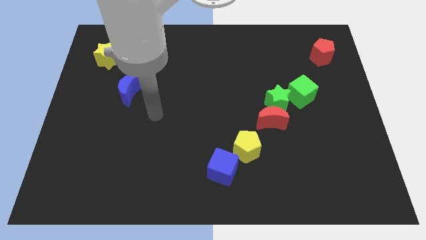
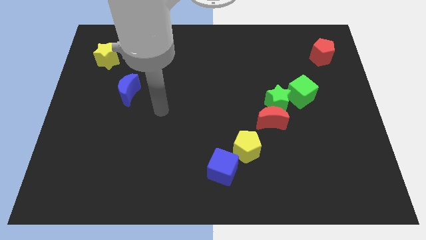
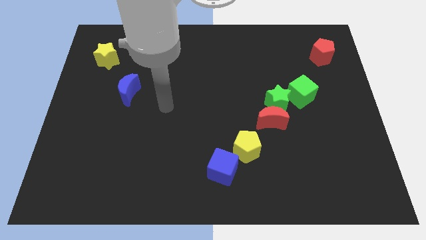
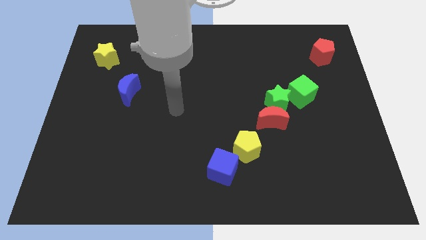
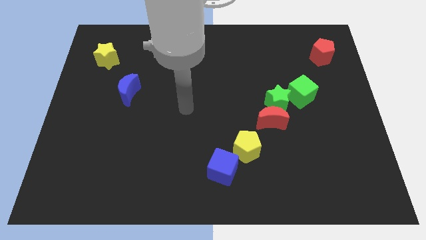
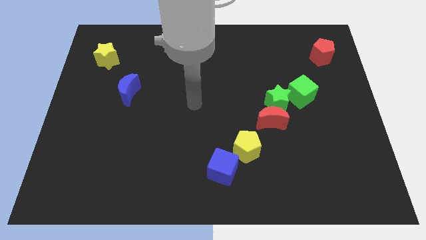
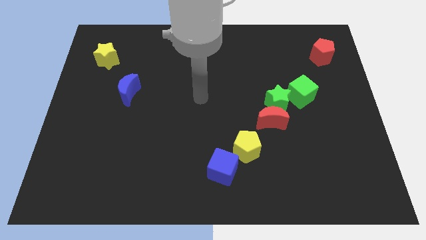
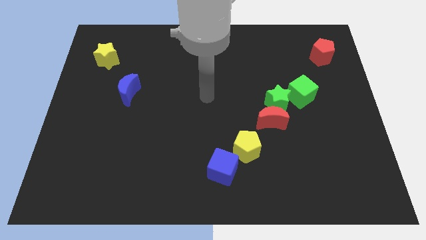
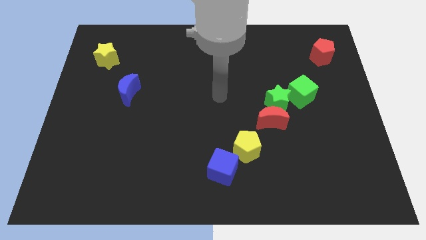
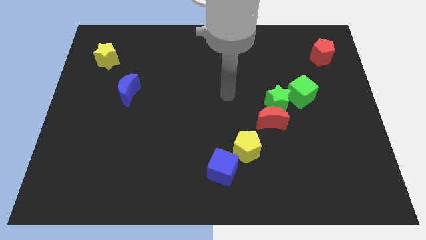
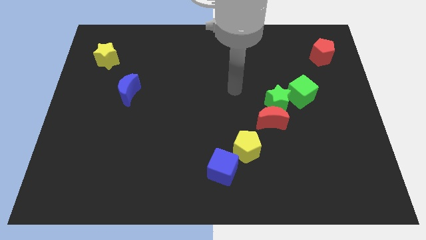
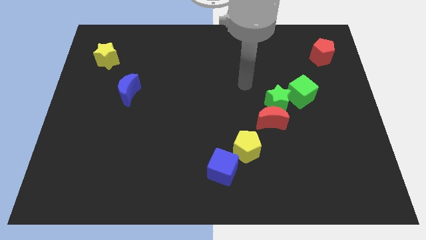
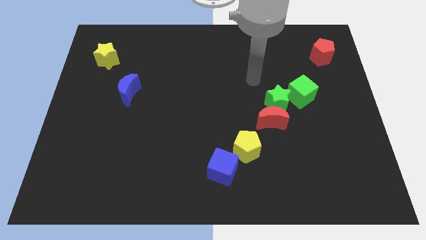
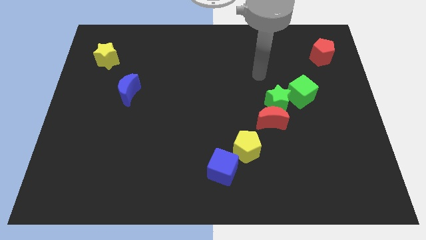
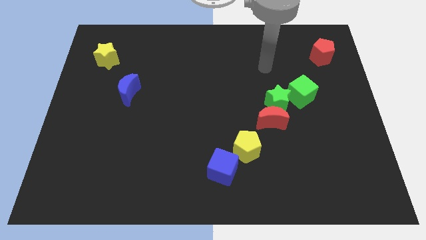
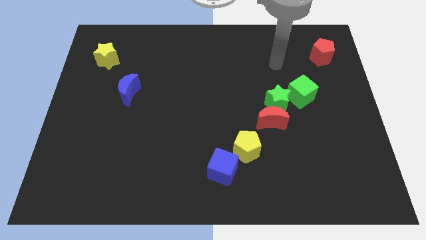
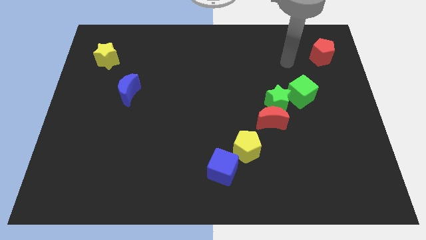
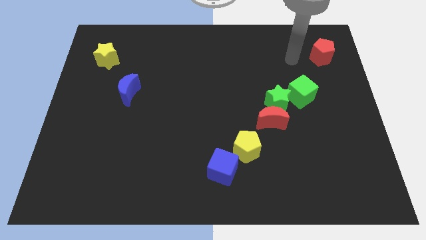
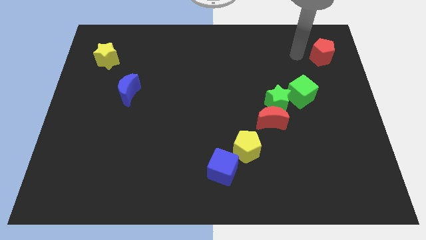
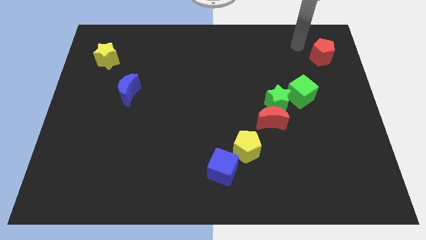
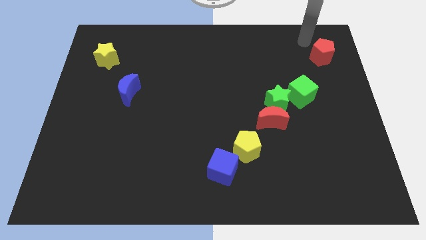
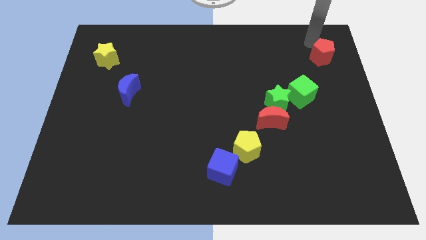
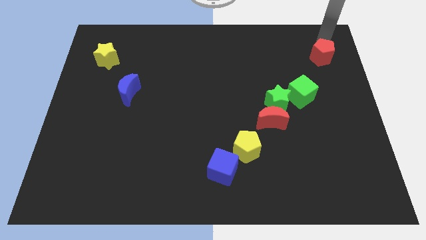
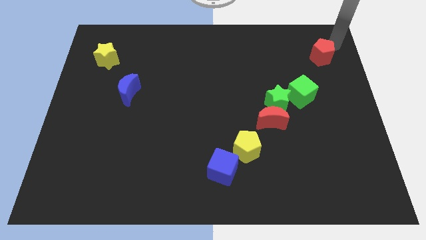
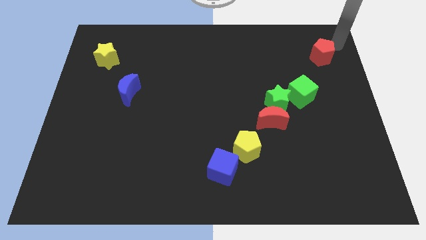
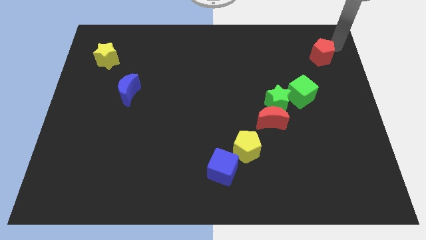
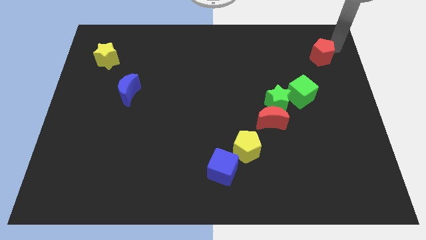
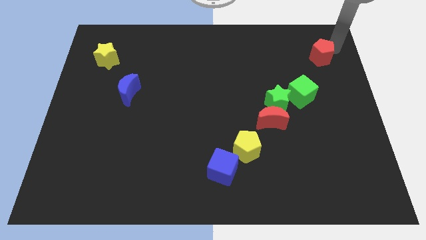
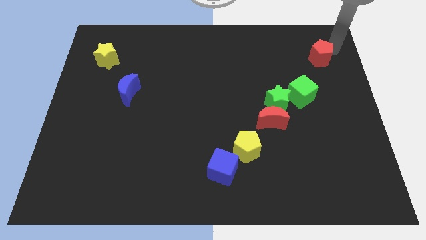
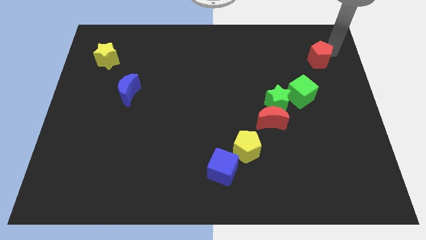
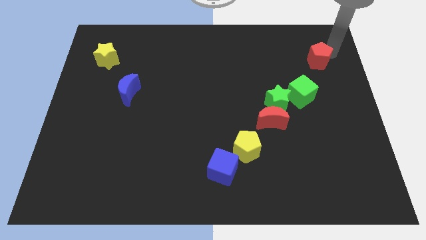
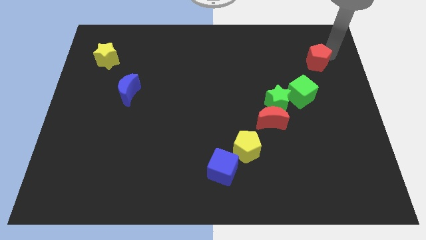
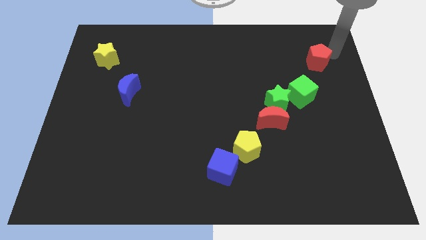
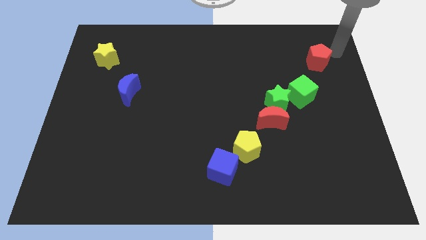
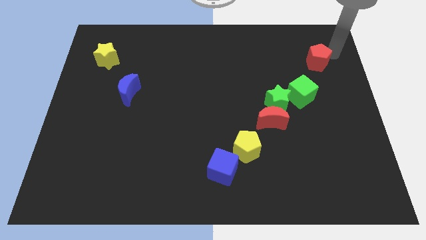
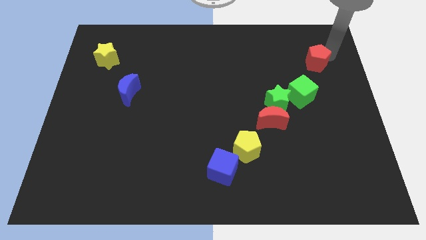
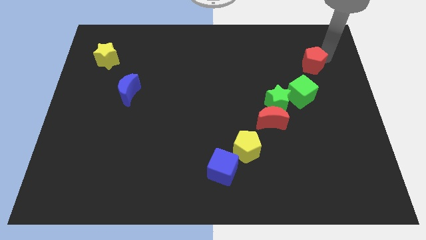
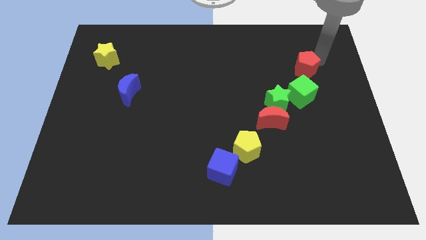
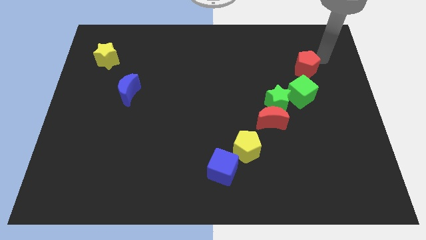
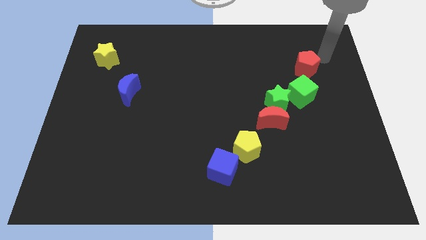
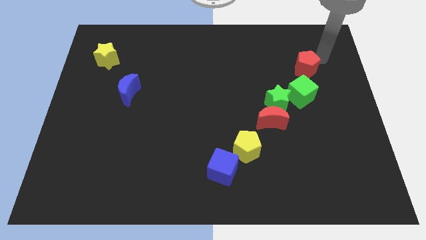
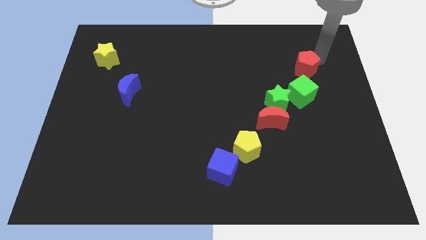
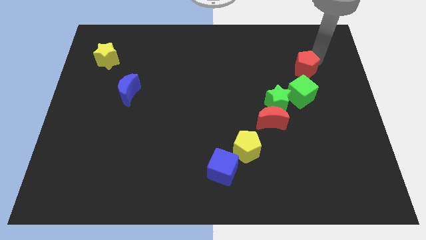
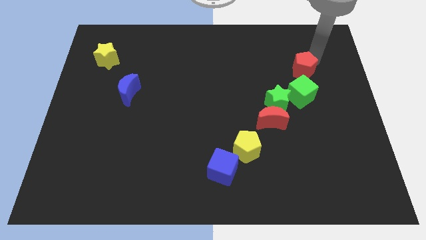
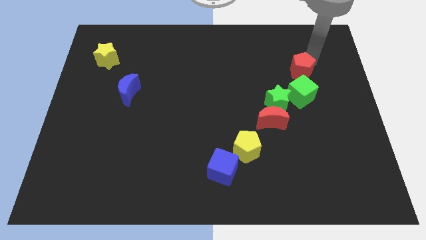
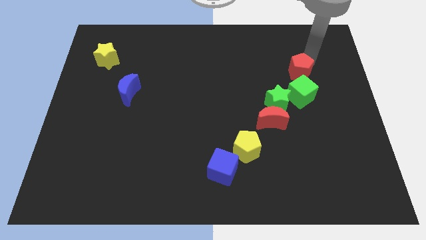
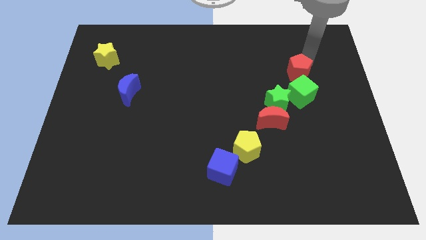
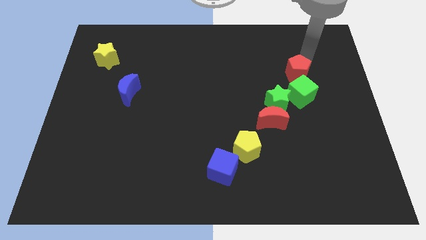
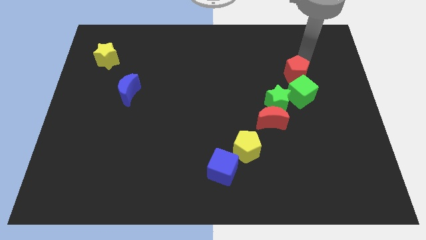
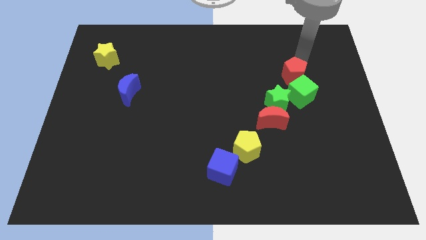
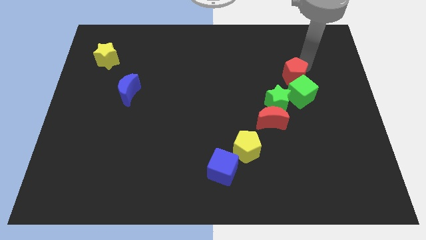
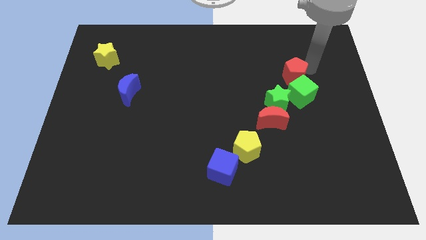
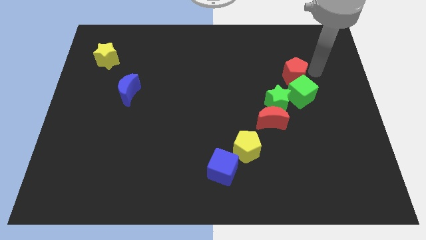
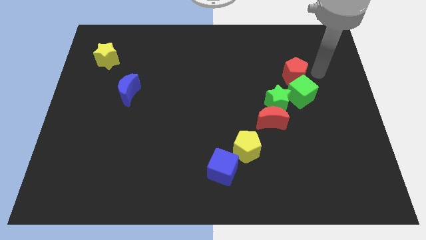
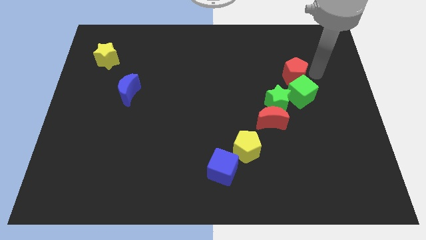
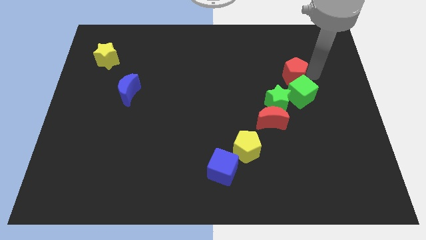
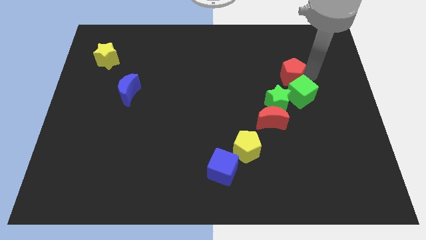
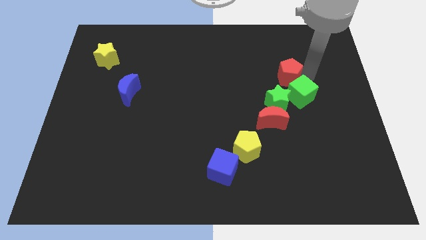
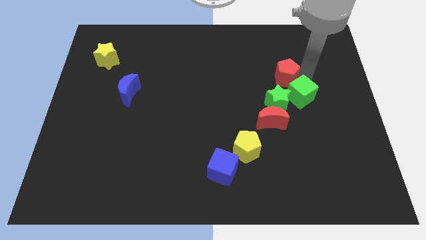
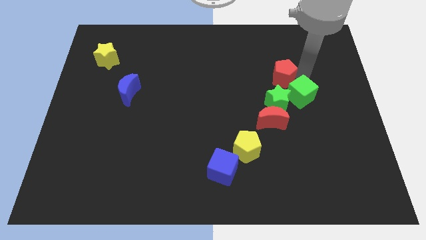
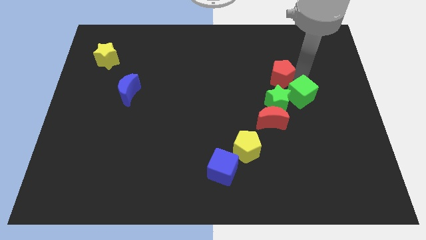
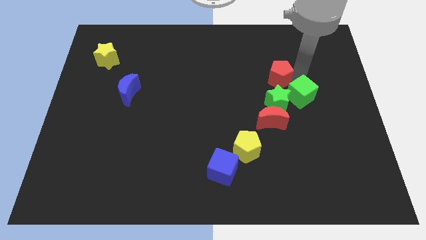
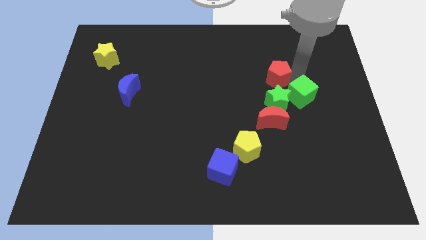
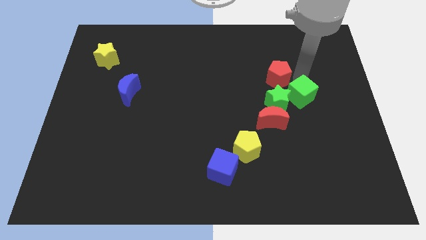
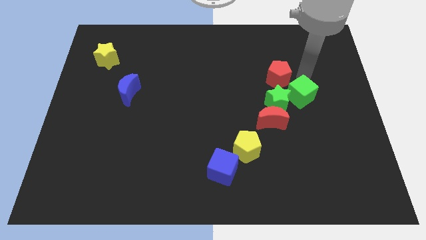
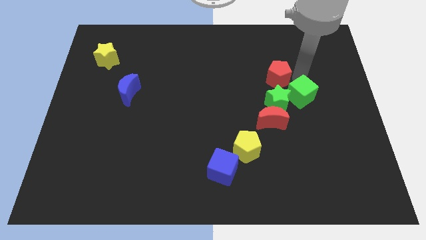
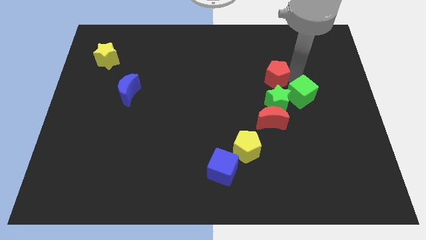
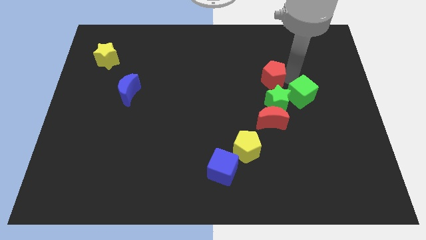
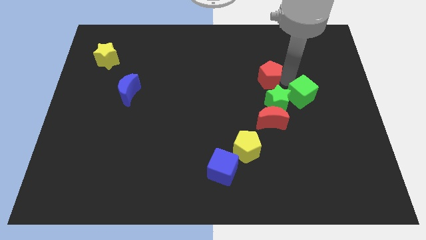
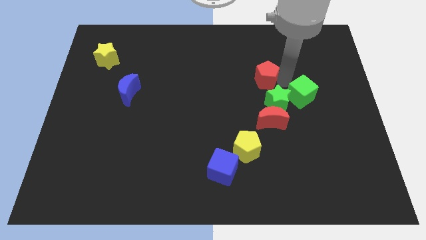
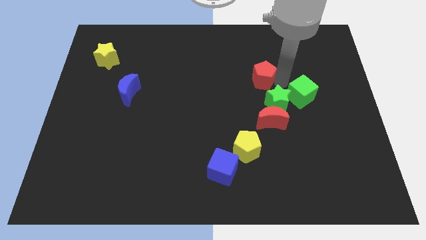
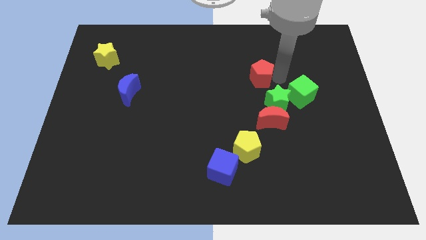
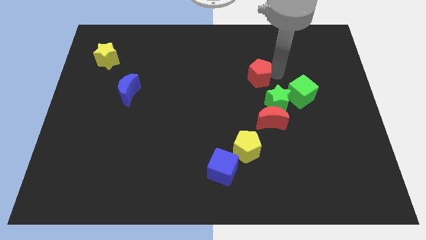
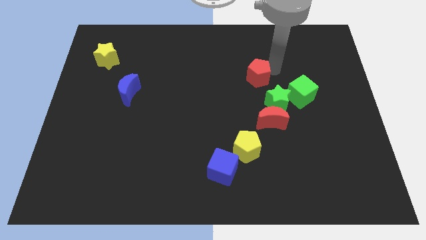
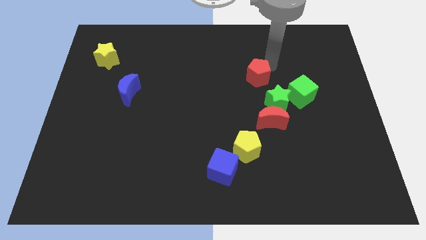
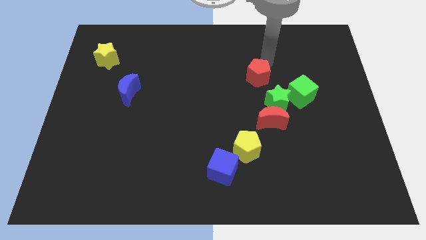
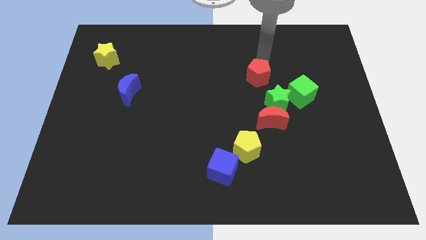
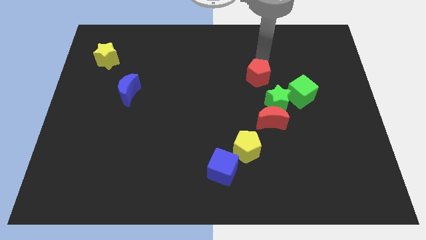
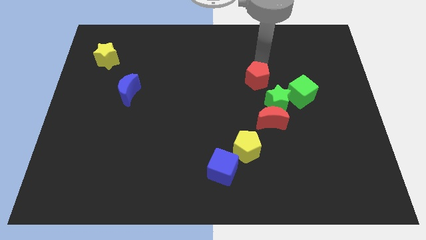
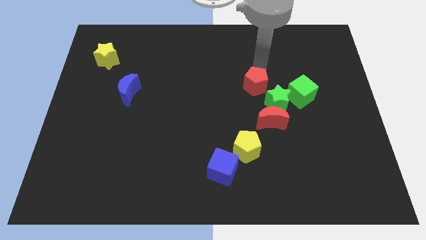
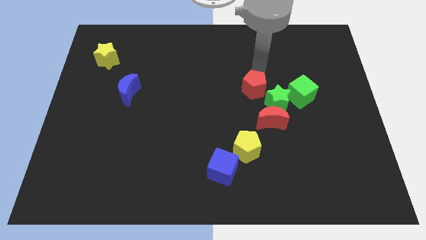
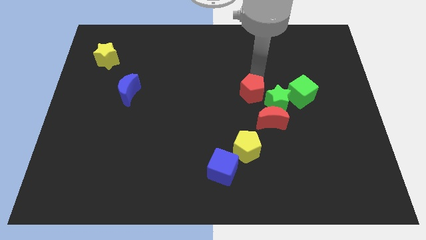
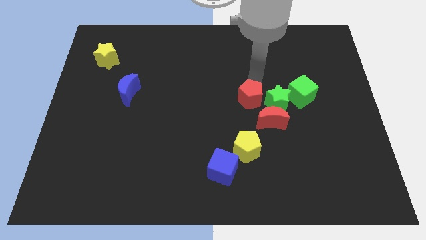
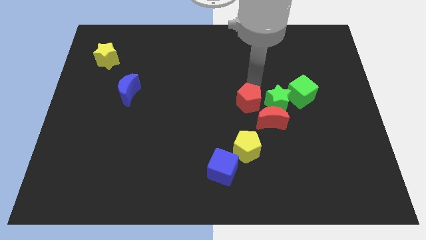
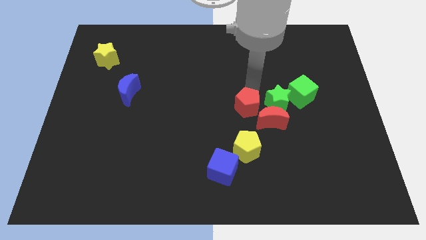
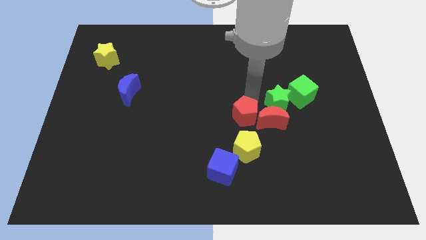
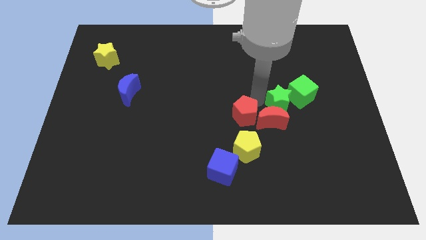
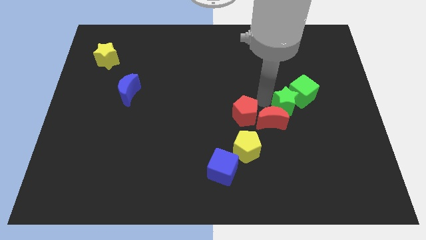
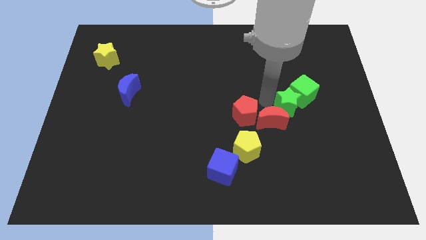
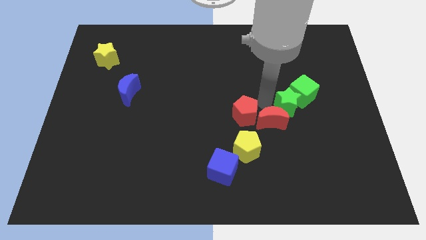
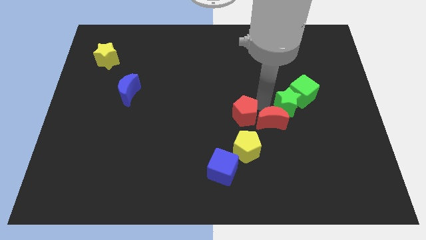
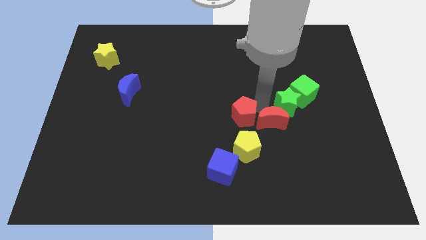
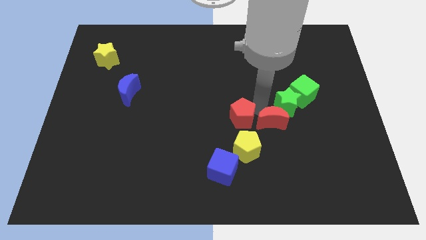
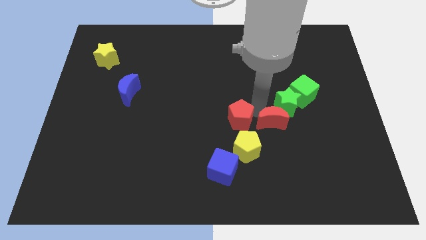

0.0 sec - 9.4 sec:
slide the red pentagon to the top side of the blue cube
